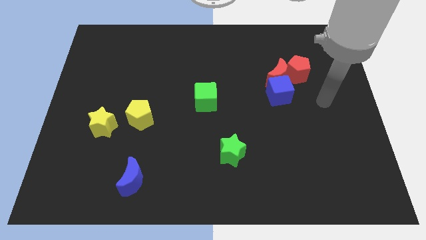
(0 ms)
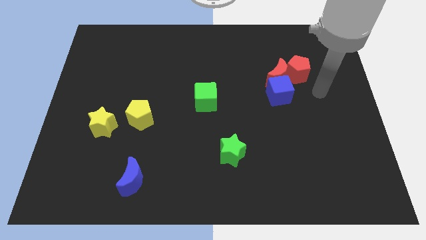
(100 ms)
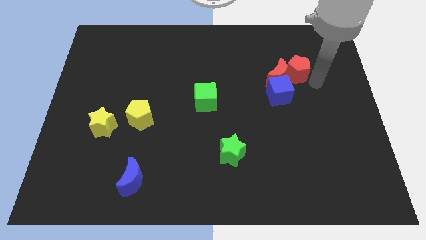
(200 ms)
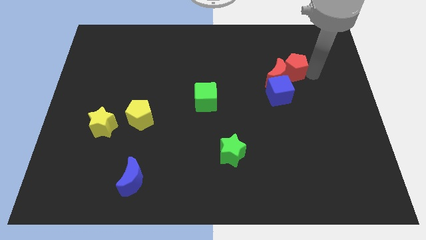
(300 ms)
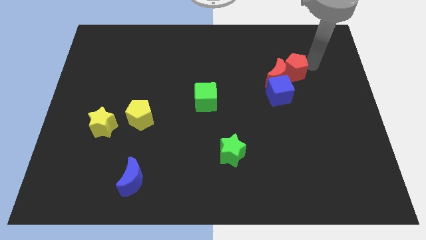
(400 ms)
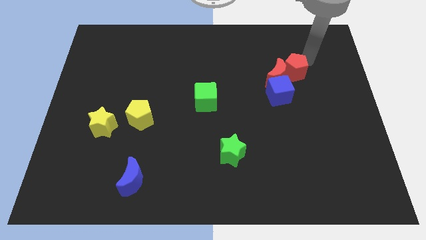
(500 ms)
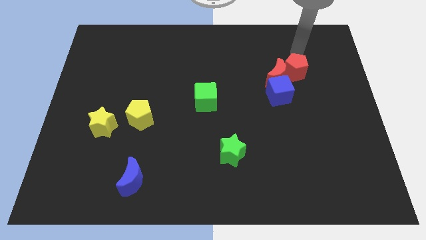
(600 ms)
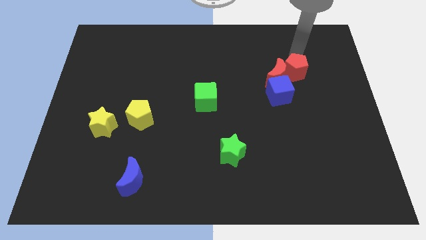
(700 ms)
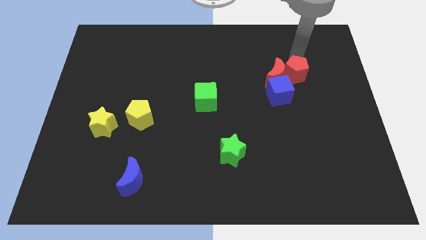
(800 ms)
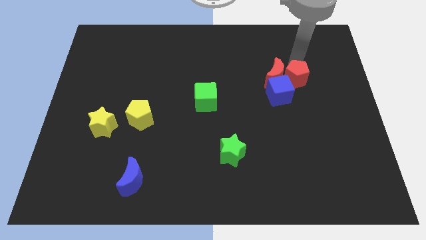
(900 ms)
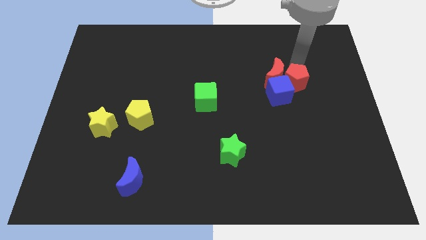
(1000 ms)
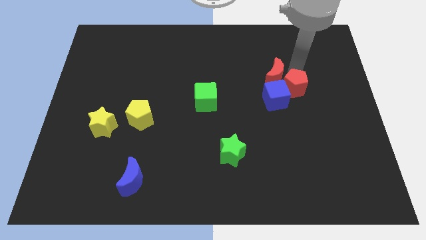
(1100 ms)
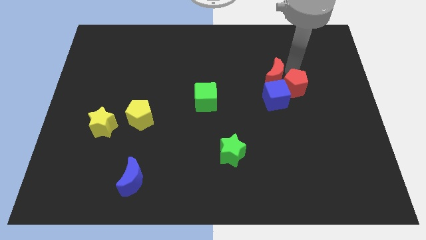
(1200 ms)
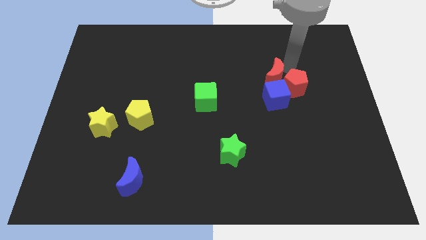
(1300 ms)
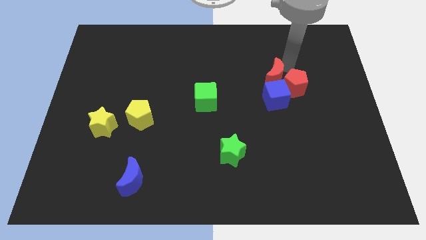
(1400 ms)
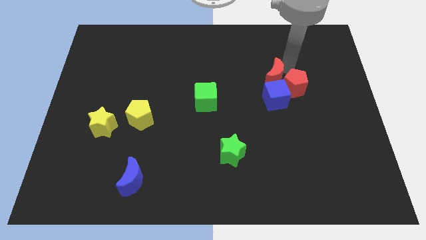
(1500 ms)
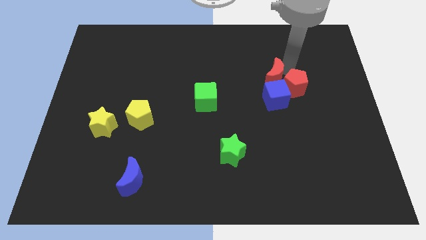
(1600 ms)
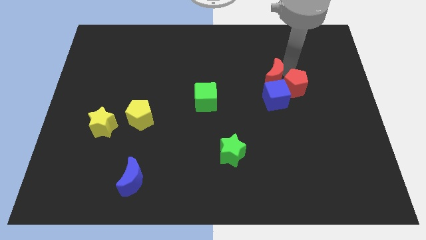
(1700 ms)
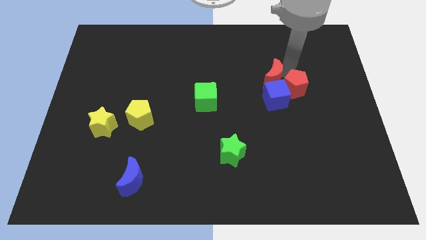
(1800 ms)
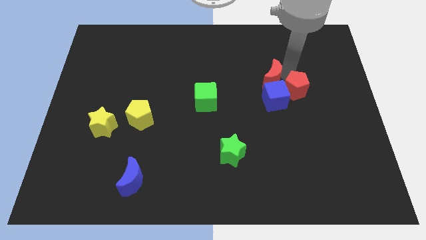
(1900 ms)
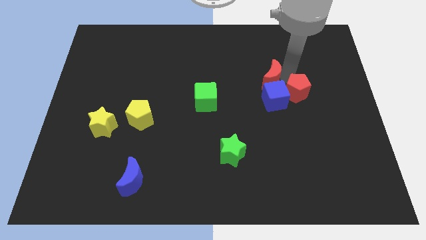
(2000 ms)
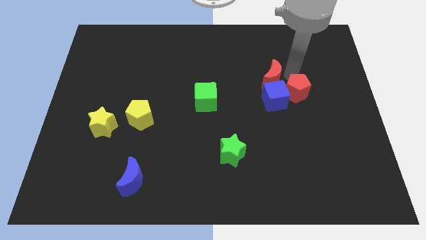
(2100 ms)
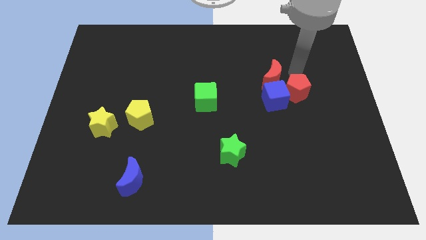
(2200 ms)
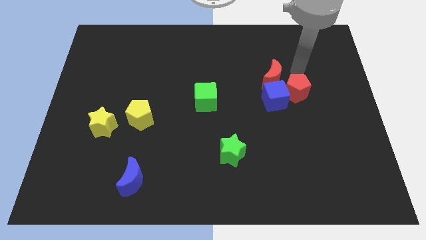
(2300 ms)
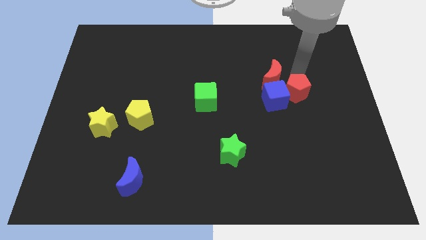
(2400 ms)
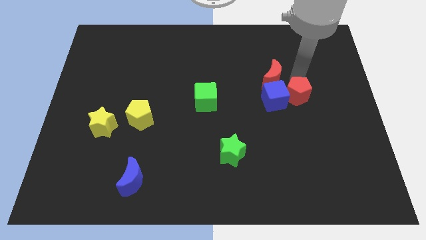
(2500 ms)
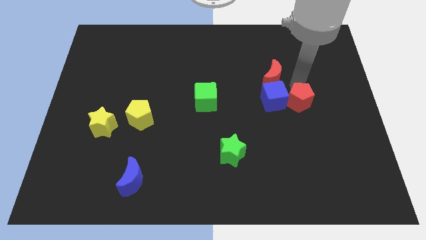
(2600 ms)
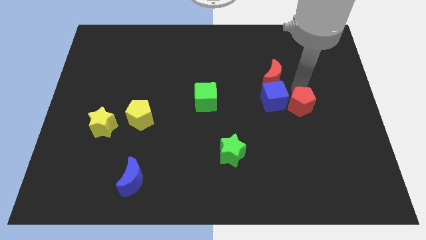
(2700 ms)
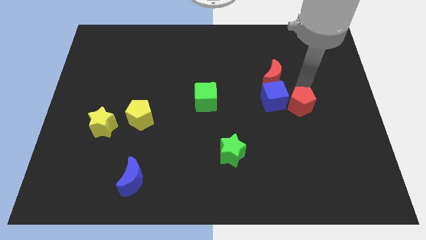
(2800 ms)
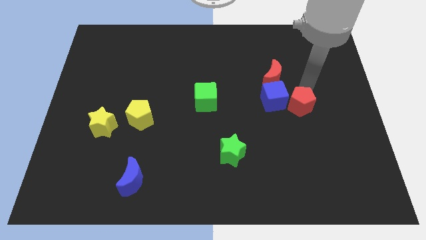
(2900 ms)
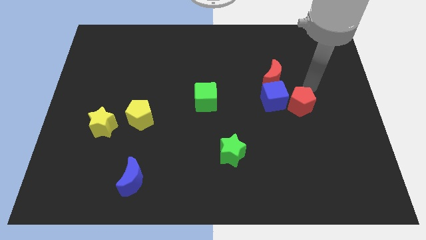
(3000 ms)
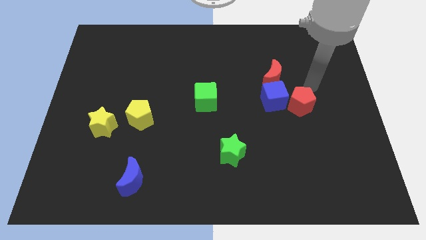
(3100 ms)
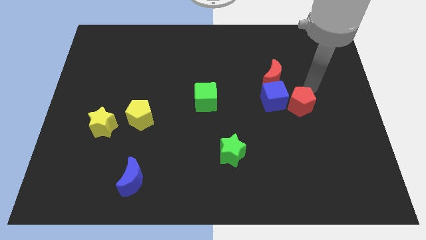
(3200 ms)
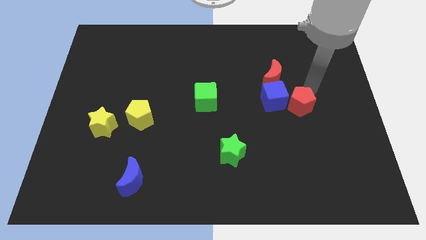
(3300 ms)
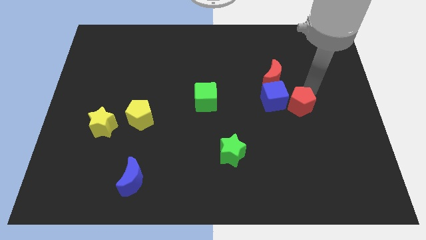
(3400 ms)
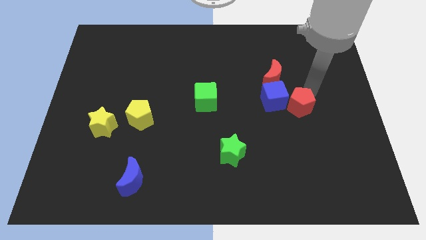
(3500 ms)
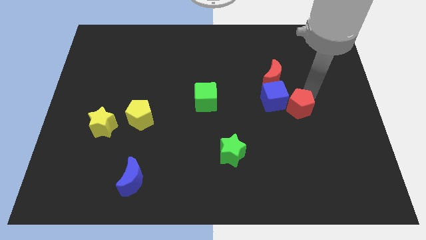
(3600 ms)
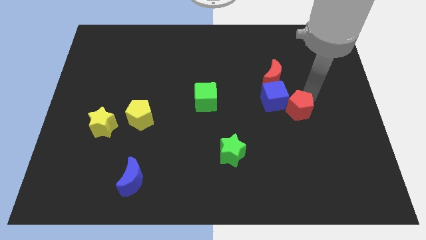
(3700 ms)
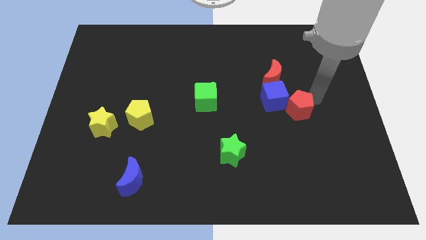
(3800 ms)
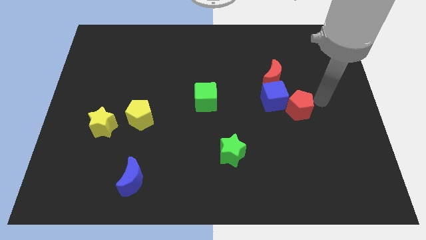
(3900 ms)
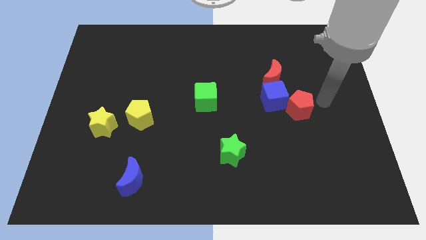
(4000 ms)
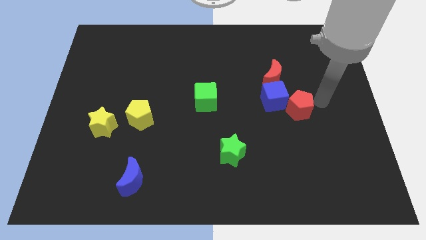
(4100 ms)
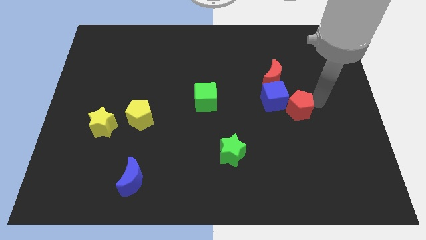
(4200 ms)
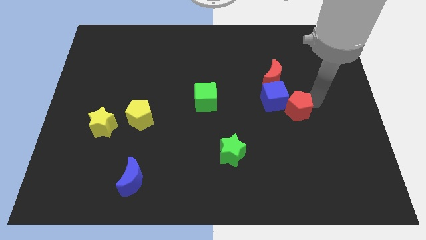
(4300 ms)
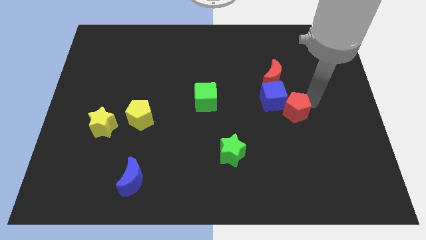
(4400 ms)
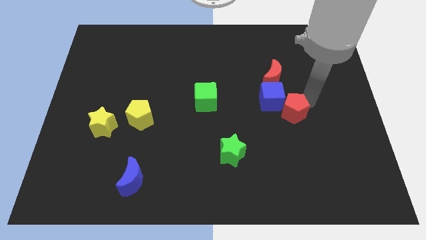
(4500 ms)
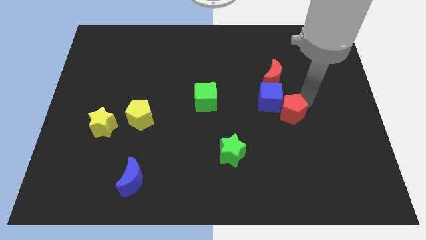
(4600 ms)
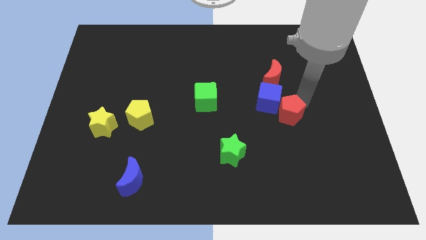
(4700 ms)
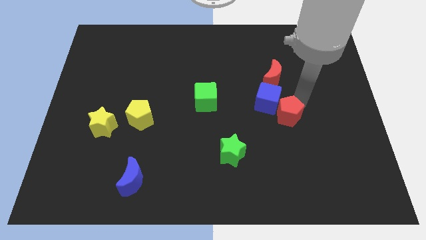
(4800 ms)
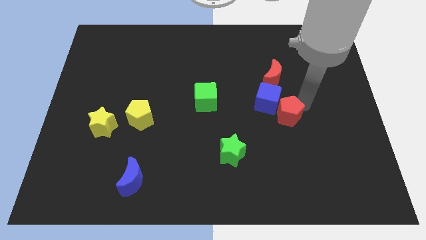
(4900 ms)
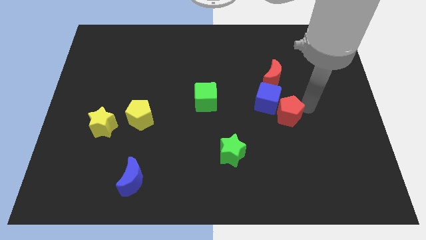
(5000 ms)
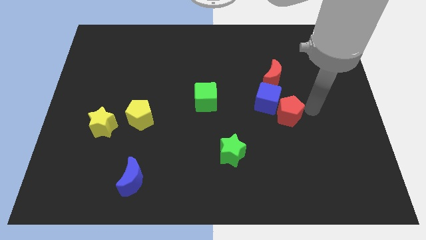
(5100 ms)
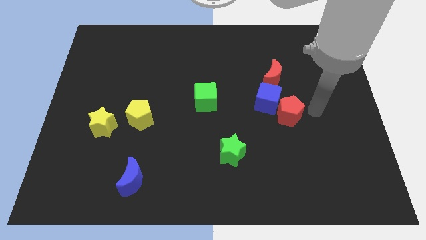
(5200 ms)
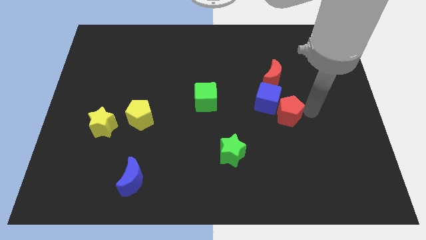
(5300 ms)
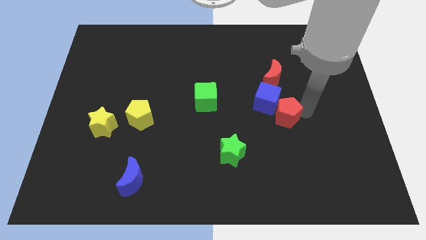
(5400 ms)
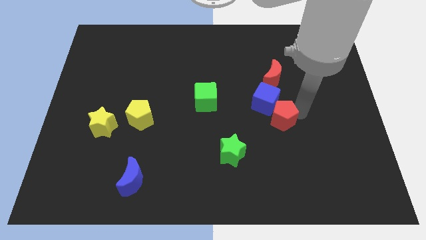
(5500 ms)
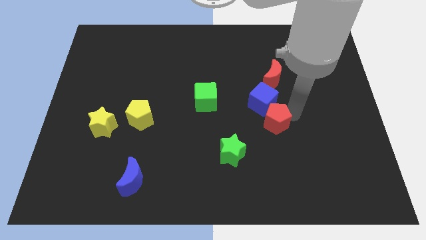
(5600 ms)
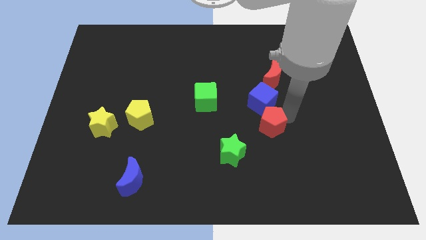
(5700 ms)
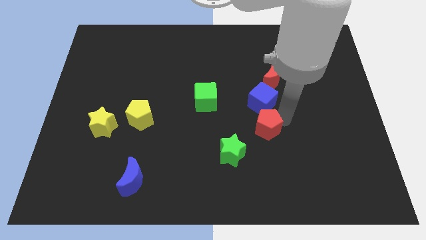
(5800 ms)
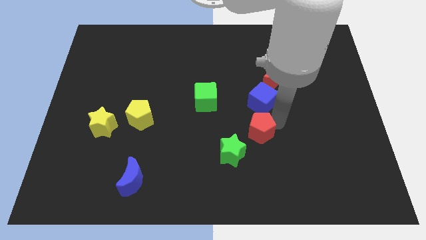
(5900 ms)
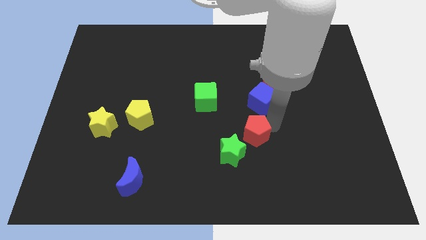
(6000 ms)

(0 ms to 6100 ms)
push the red pentagon diagonally down and to the left

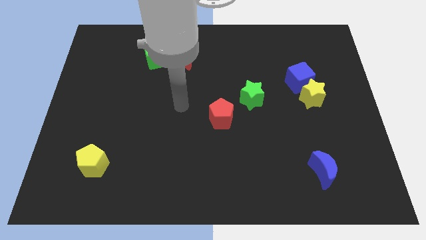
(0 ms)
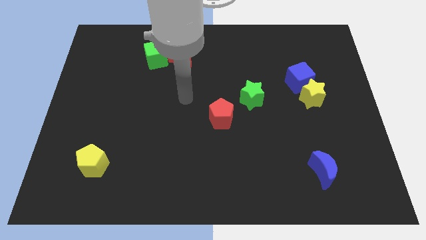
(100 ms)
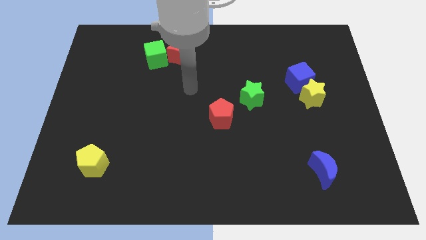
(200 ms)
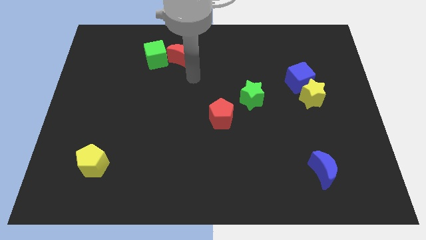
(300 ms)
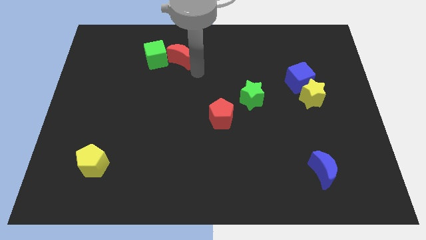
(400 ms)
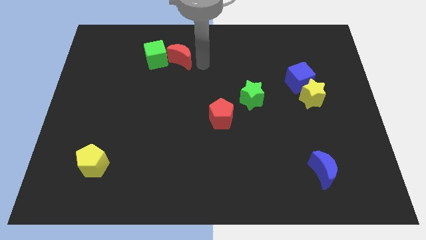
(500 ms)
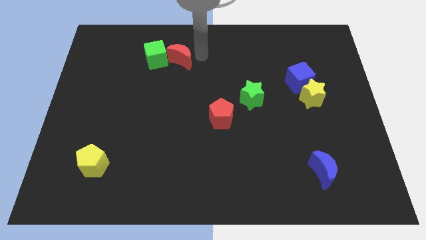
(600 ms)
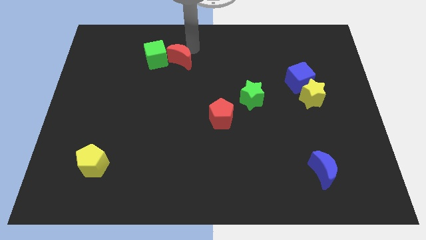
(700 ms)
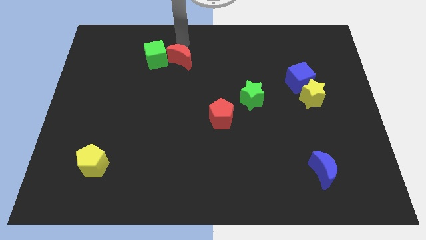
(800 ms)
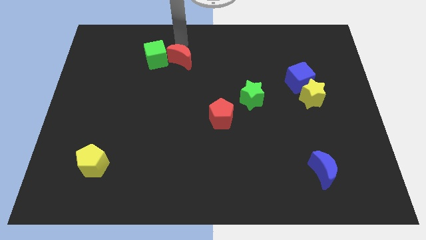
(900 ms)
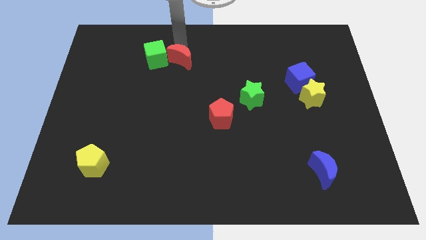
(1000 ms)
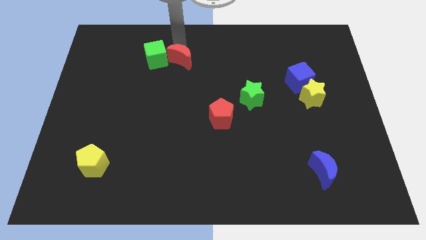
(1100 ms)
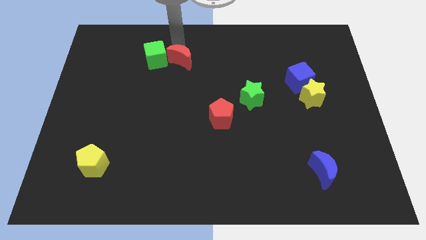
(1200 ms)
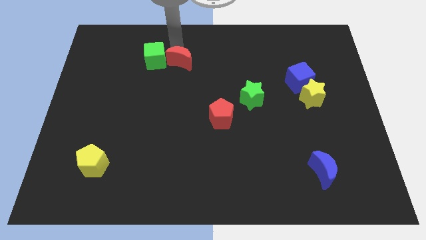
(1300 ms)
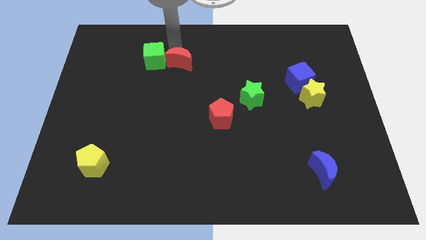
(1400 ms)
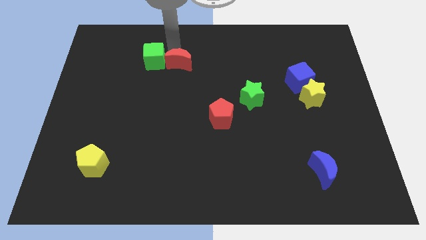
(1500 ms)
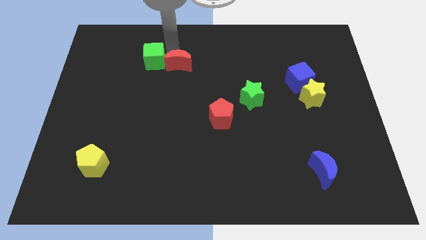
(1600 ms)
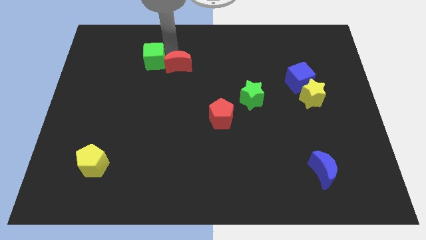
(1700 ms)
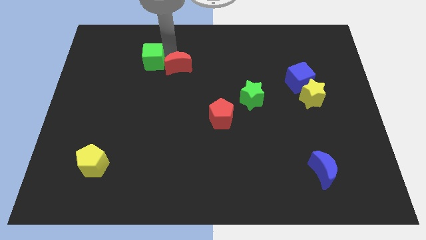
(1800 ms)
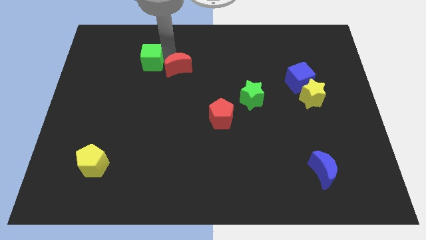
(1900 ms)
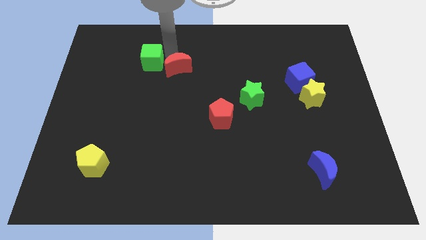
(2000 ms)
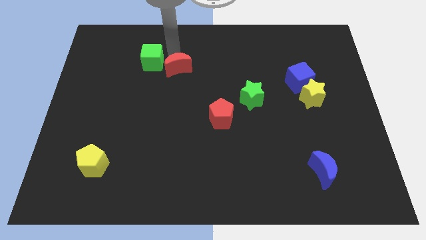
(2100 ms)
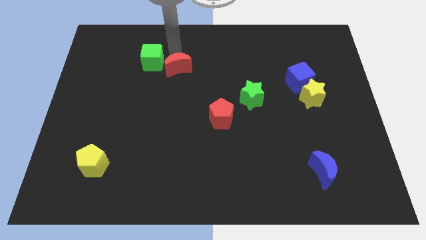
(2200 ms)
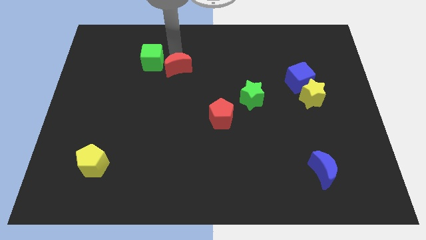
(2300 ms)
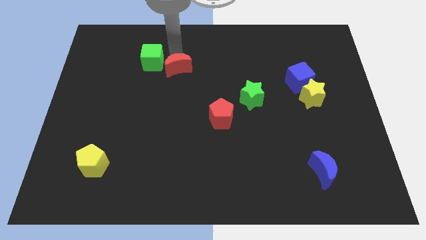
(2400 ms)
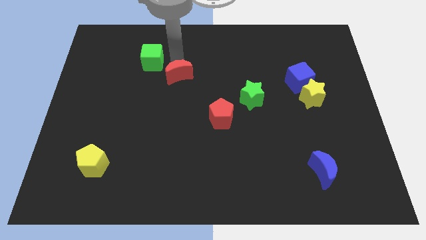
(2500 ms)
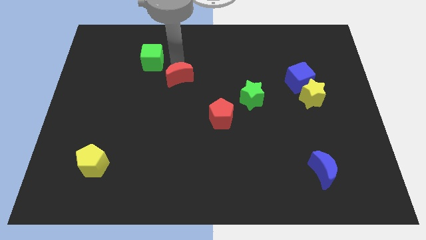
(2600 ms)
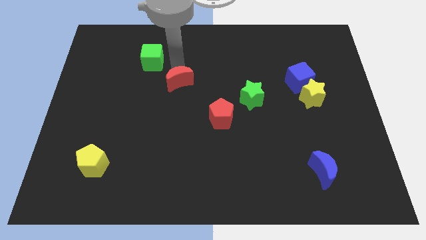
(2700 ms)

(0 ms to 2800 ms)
slide the red moon downwards a little bit
